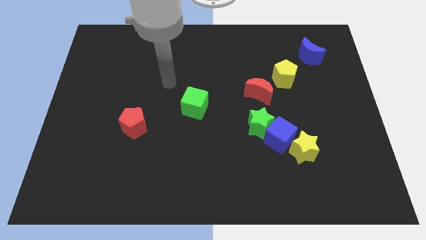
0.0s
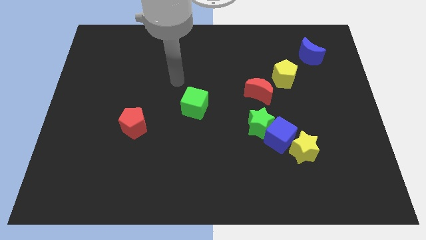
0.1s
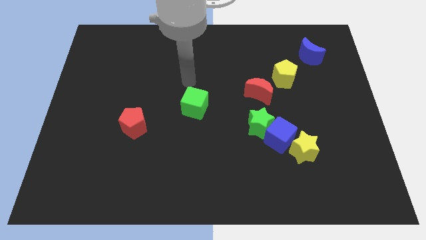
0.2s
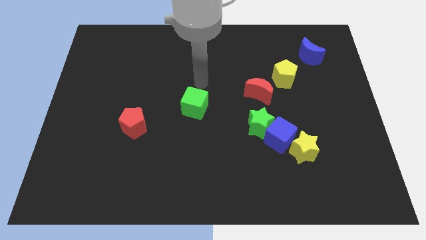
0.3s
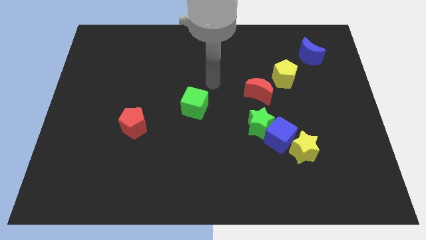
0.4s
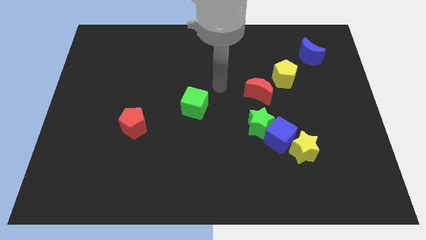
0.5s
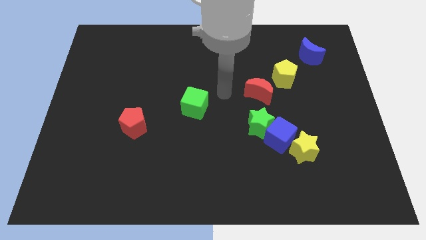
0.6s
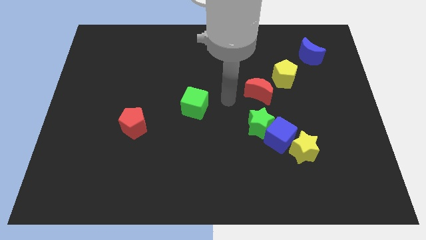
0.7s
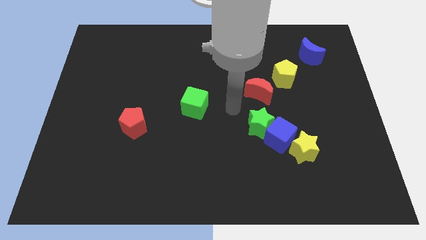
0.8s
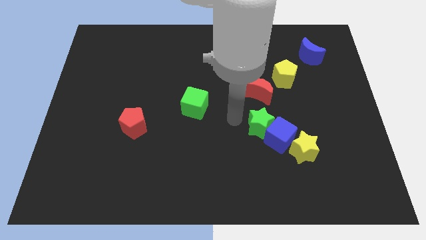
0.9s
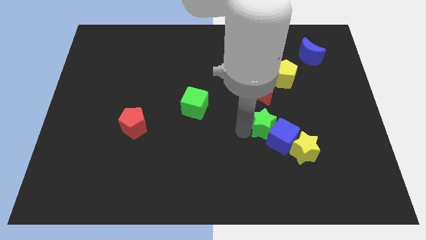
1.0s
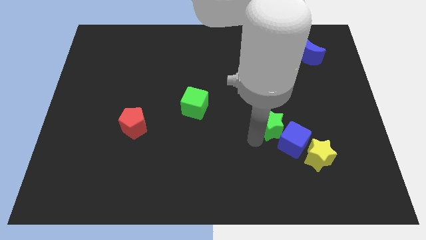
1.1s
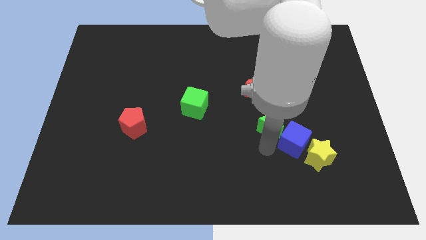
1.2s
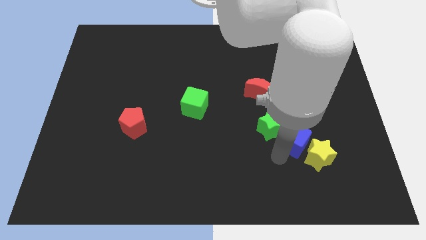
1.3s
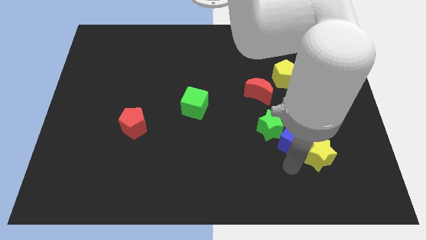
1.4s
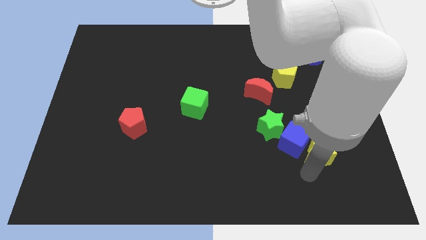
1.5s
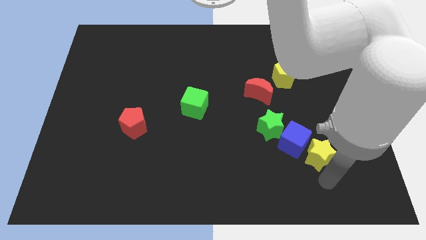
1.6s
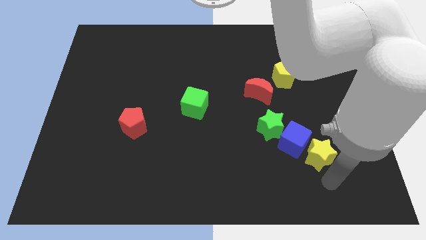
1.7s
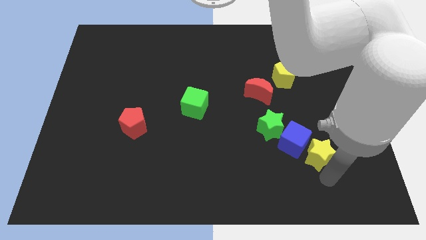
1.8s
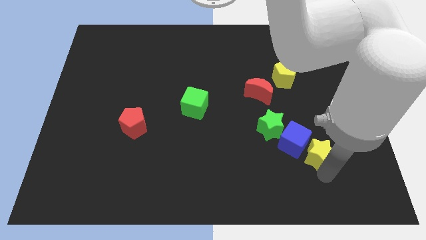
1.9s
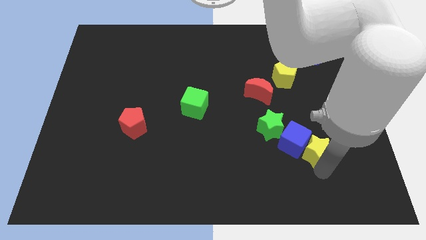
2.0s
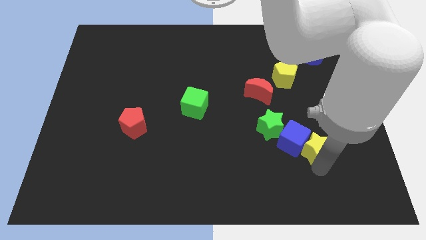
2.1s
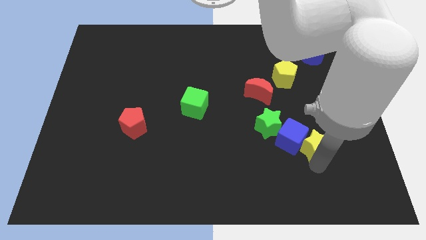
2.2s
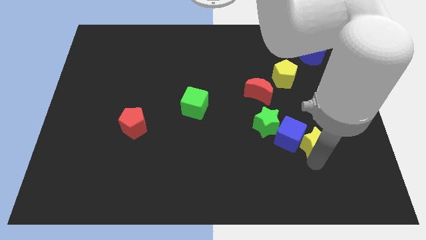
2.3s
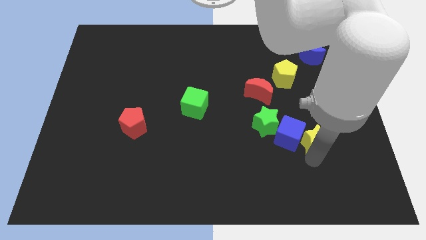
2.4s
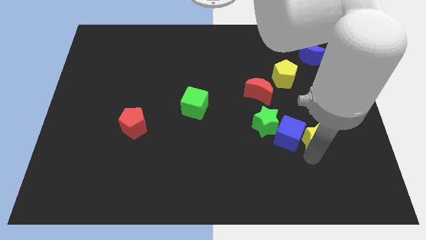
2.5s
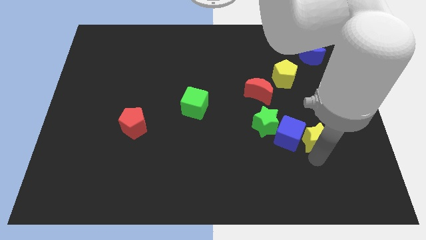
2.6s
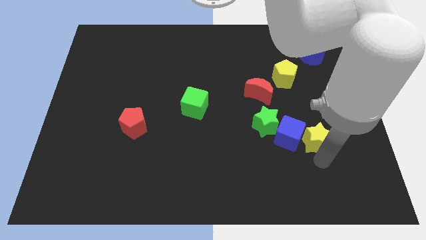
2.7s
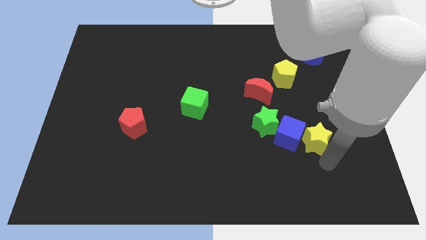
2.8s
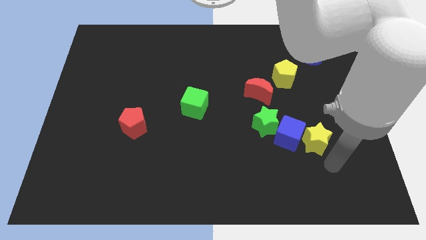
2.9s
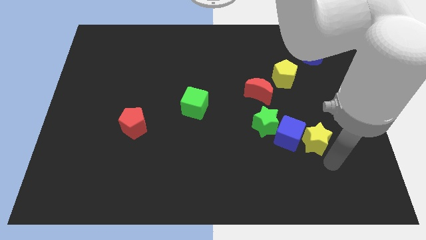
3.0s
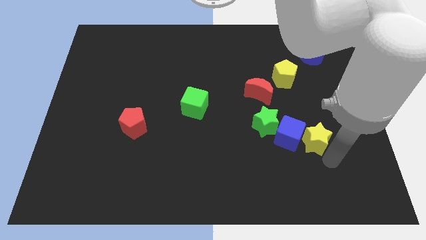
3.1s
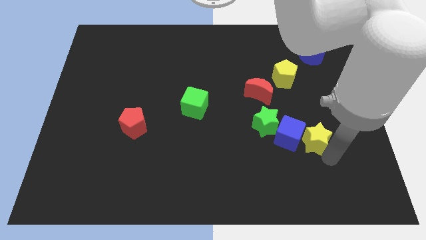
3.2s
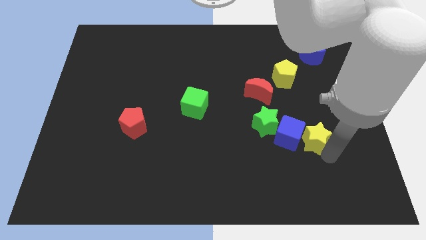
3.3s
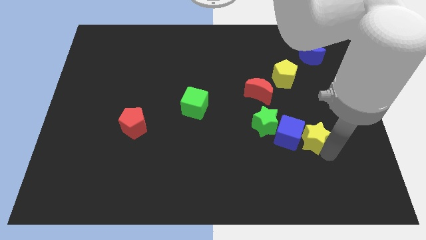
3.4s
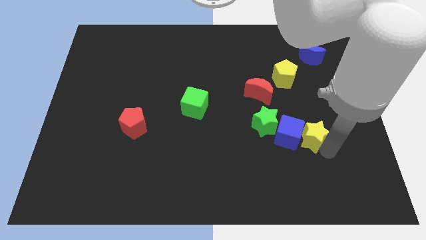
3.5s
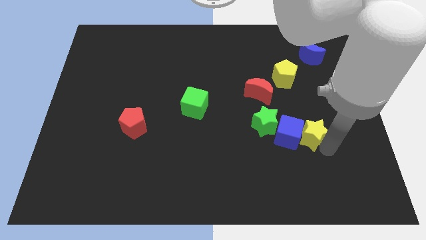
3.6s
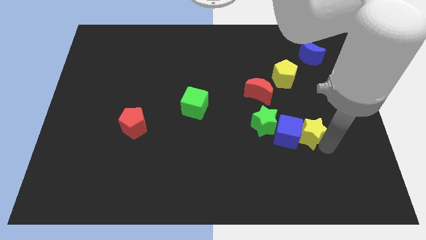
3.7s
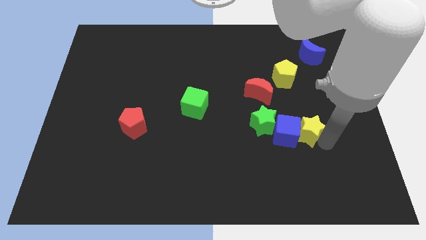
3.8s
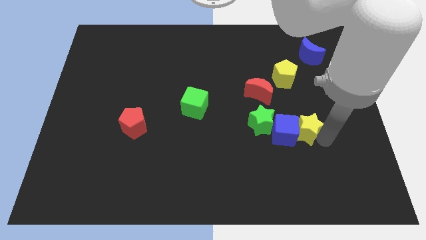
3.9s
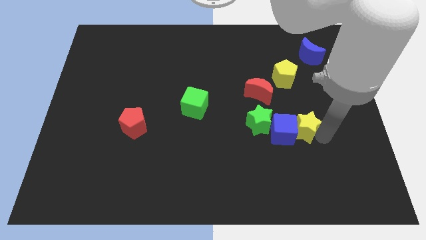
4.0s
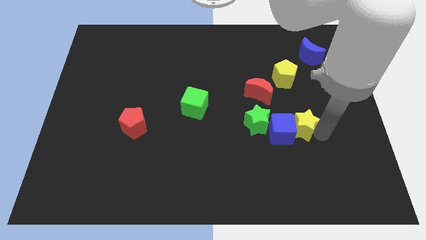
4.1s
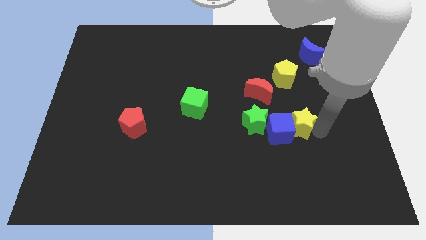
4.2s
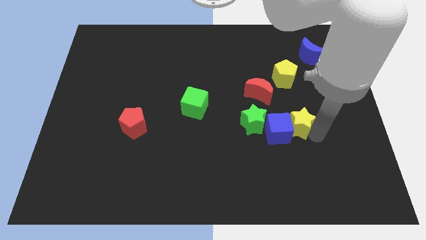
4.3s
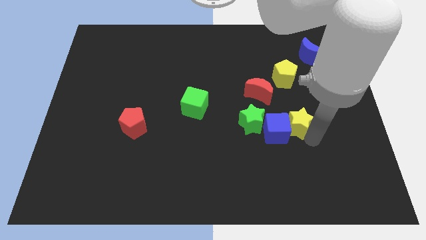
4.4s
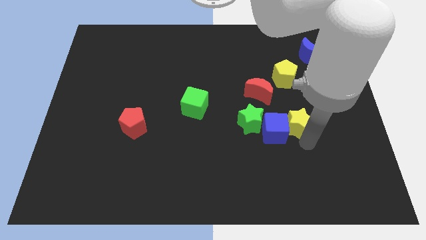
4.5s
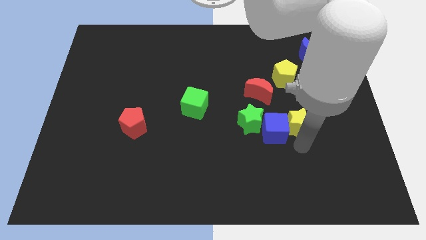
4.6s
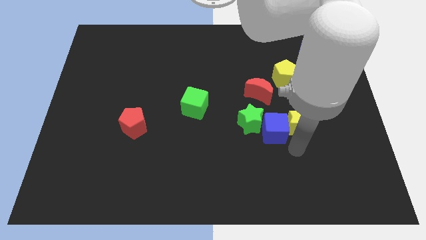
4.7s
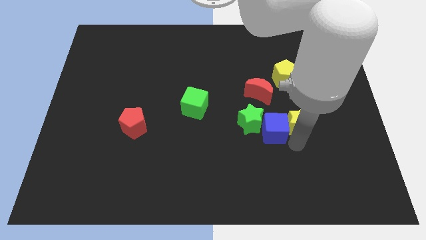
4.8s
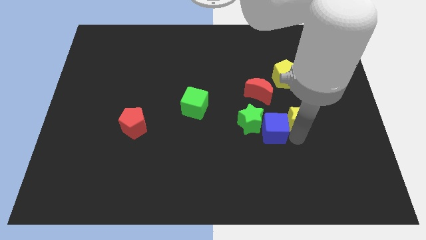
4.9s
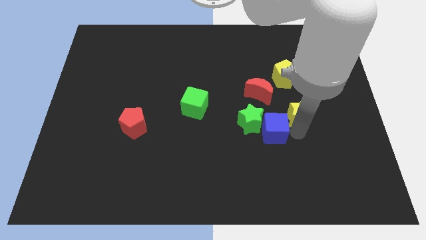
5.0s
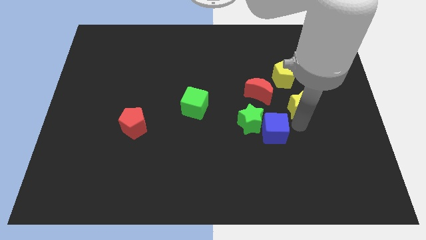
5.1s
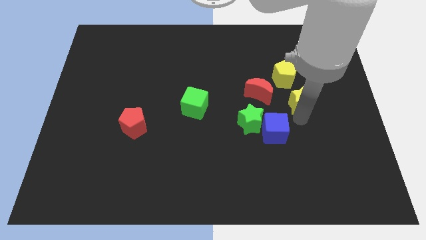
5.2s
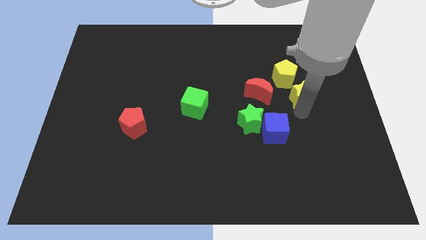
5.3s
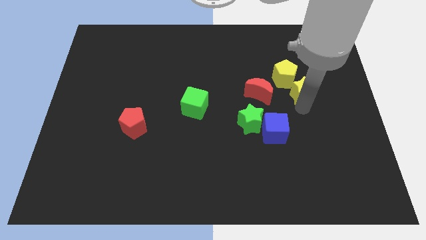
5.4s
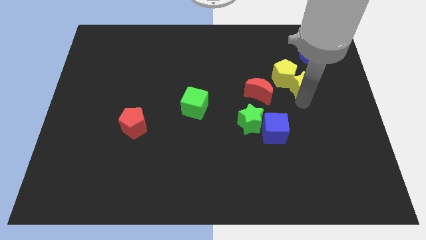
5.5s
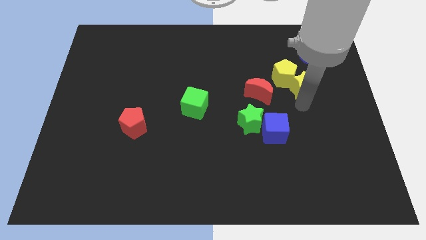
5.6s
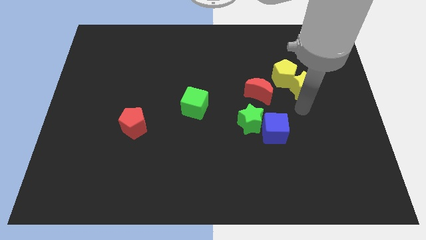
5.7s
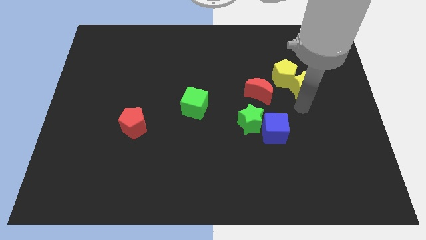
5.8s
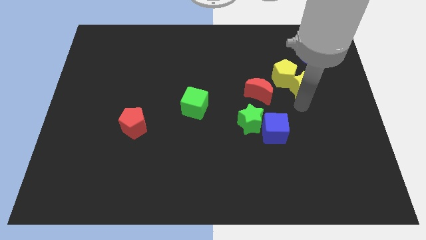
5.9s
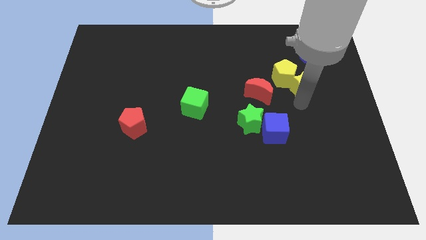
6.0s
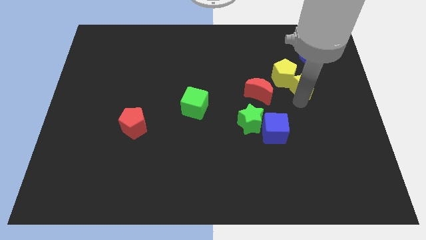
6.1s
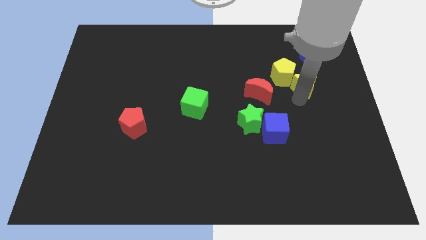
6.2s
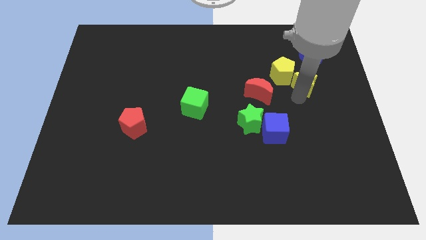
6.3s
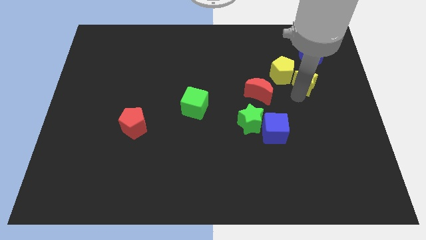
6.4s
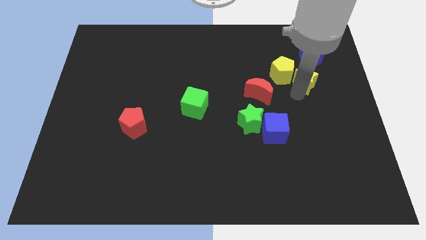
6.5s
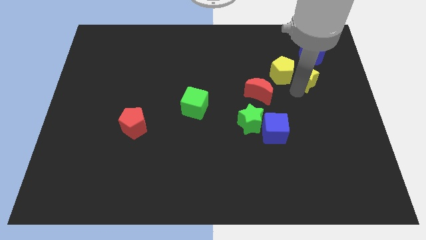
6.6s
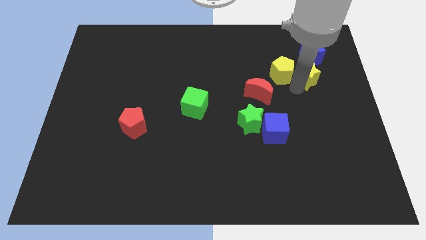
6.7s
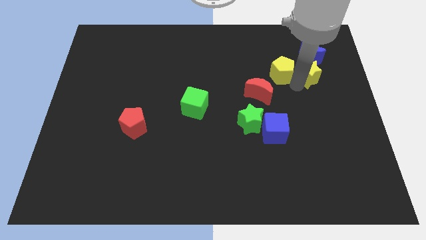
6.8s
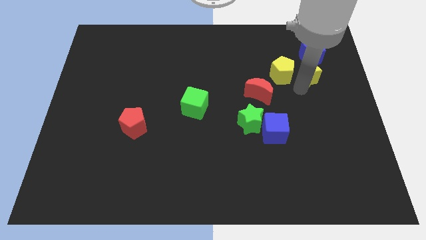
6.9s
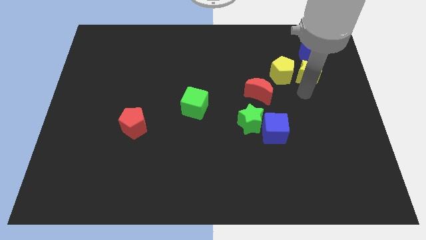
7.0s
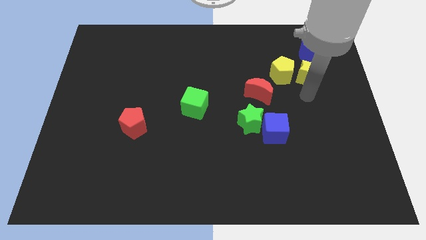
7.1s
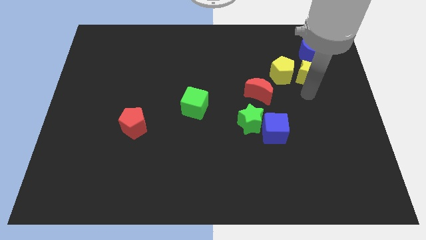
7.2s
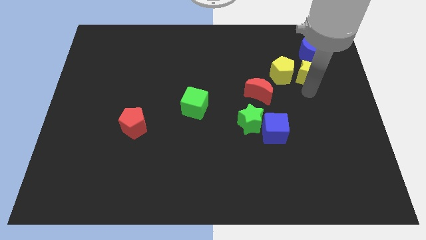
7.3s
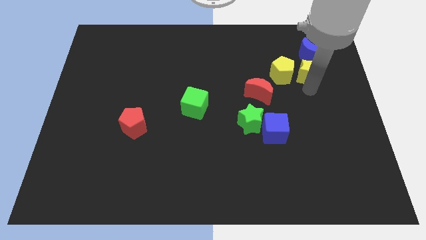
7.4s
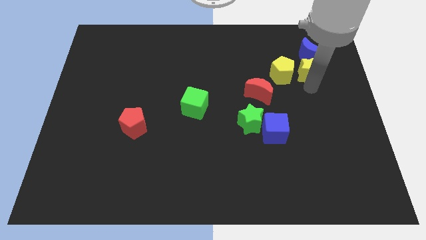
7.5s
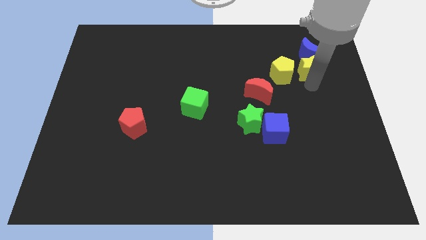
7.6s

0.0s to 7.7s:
move the yellow star next to the blue moon

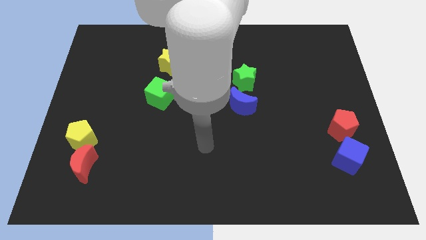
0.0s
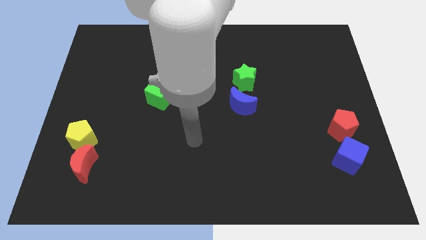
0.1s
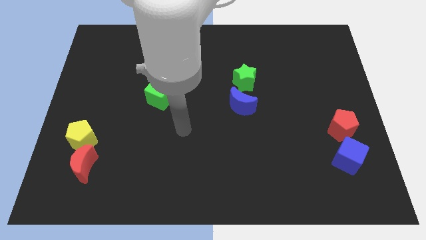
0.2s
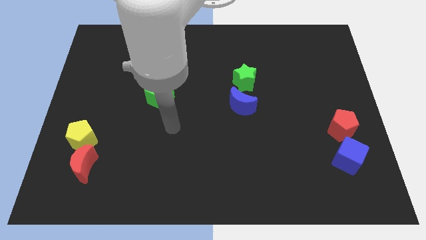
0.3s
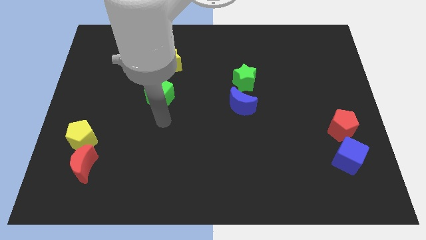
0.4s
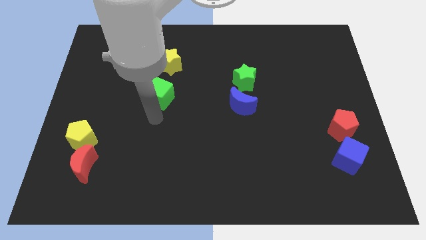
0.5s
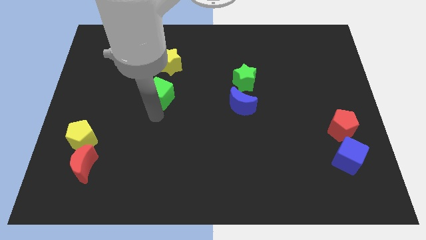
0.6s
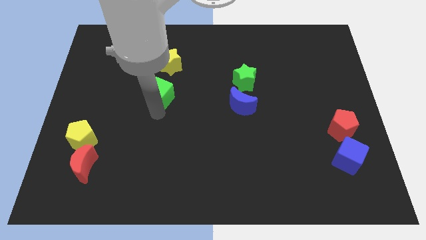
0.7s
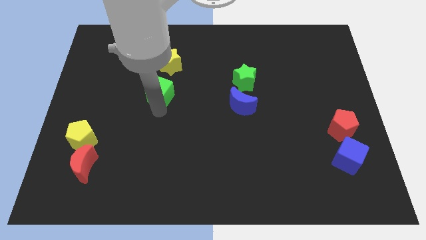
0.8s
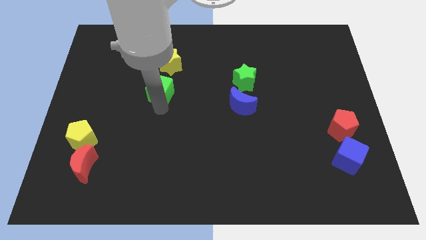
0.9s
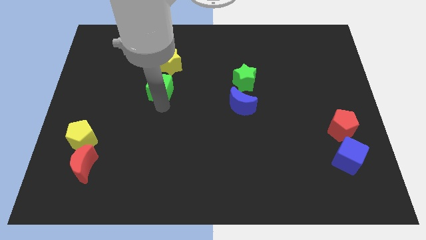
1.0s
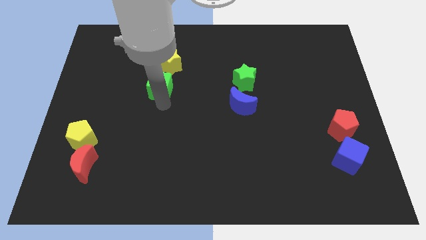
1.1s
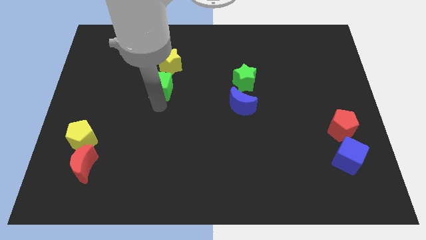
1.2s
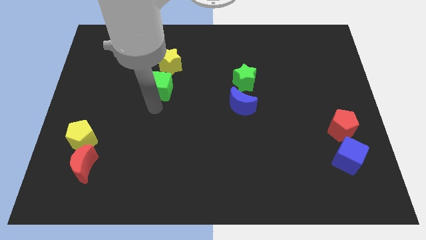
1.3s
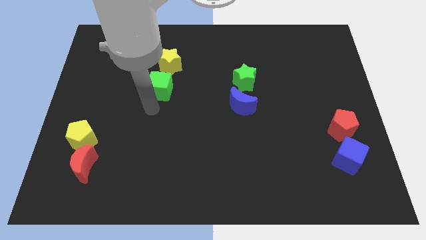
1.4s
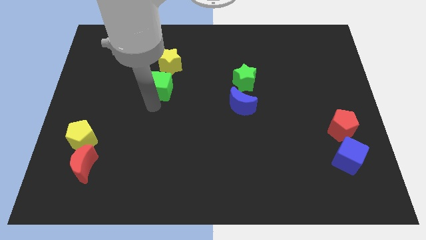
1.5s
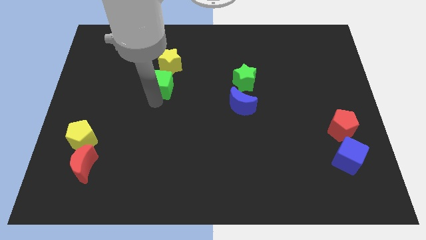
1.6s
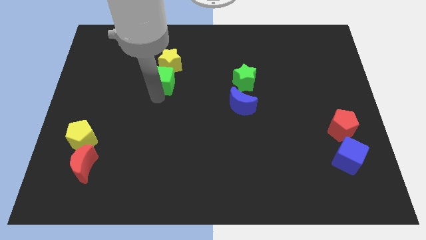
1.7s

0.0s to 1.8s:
push the green cube close to the yellow star
